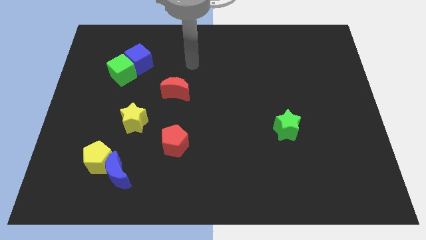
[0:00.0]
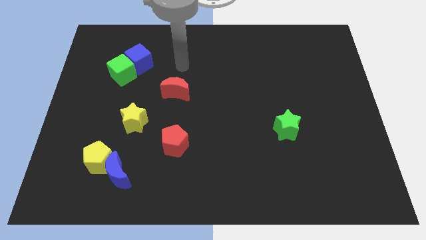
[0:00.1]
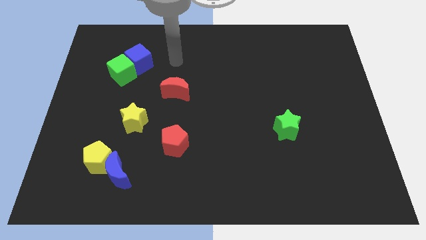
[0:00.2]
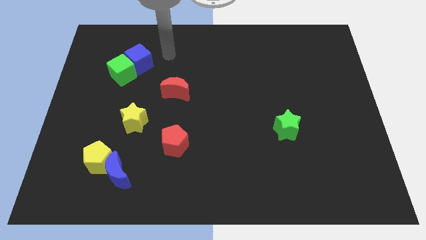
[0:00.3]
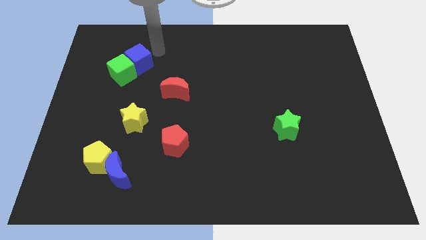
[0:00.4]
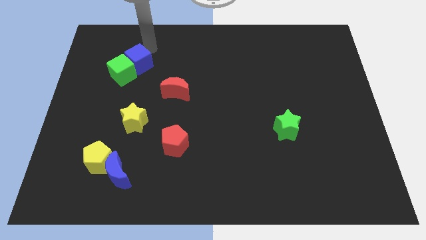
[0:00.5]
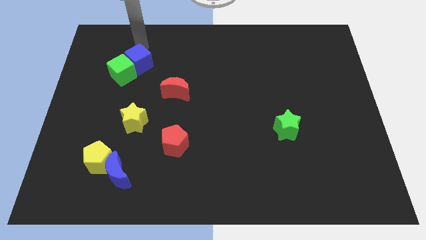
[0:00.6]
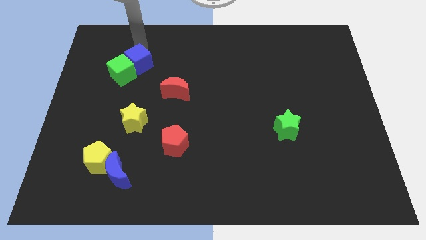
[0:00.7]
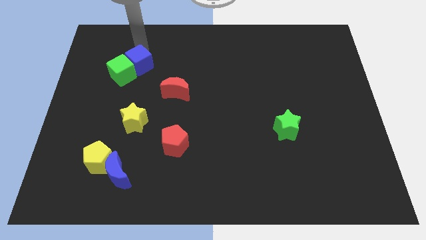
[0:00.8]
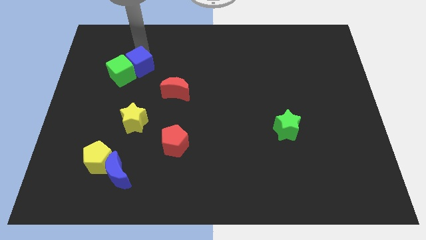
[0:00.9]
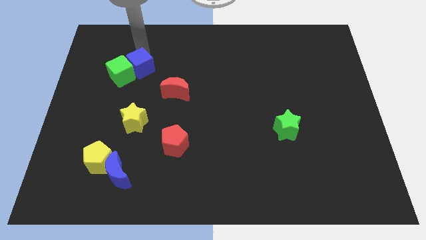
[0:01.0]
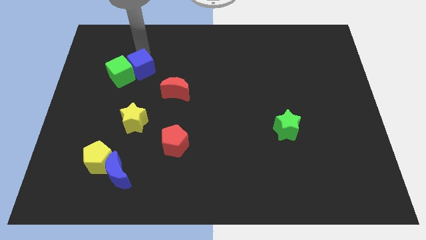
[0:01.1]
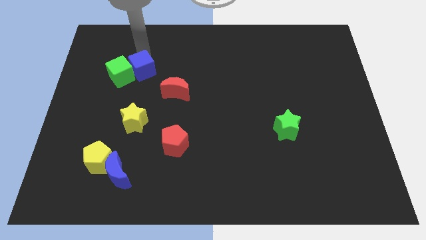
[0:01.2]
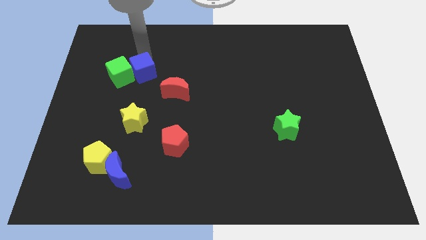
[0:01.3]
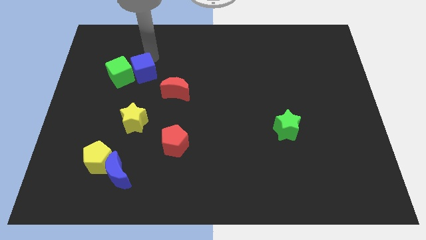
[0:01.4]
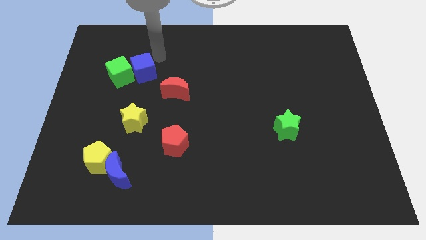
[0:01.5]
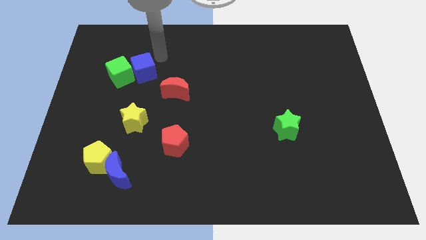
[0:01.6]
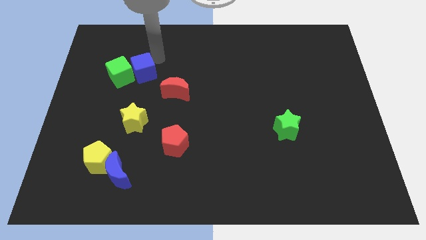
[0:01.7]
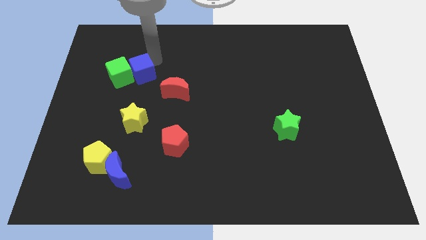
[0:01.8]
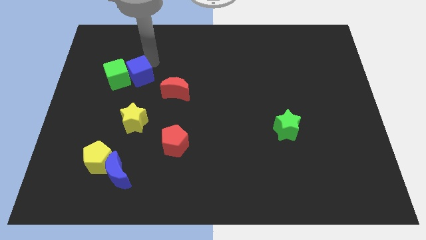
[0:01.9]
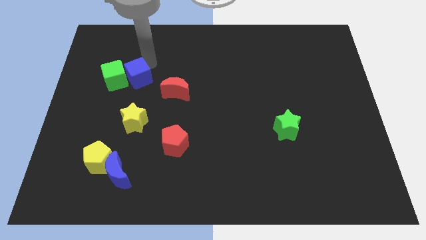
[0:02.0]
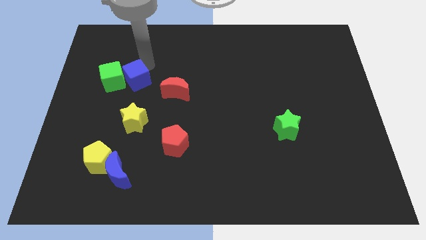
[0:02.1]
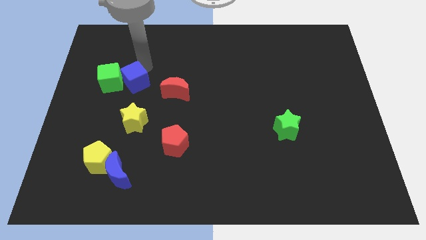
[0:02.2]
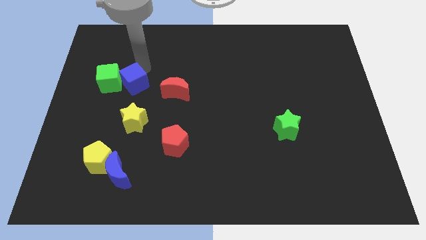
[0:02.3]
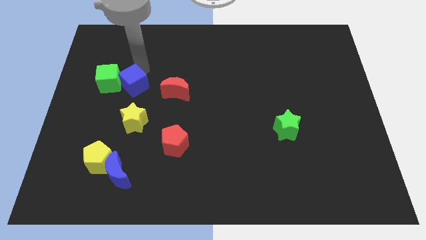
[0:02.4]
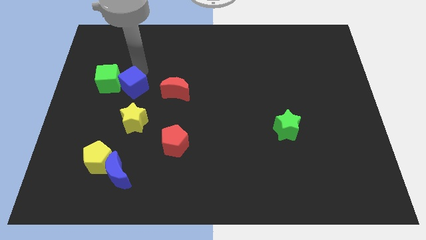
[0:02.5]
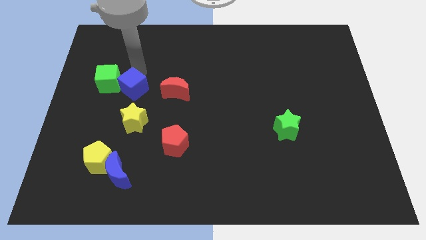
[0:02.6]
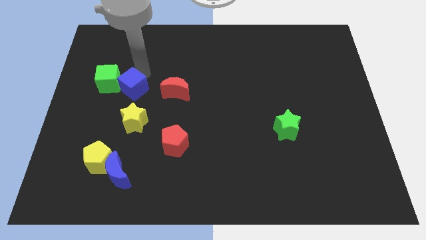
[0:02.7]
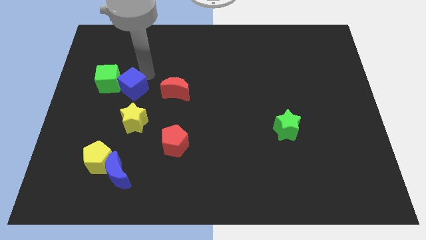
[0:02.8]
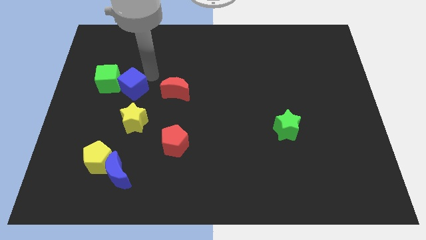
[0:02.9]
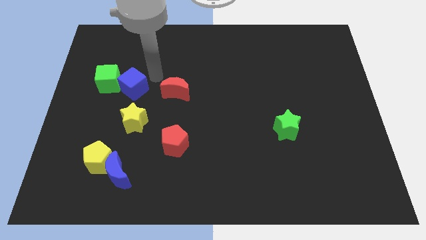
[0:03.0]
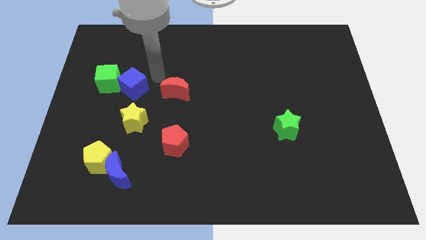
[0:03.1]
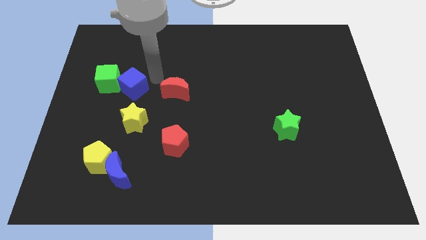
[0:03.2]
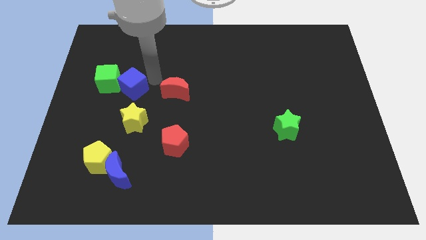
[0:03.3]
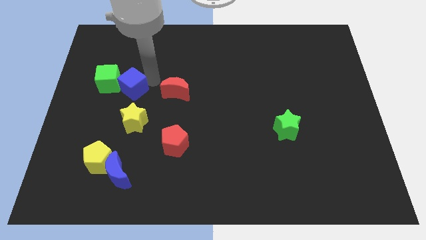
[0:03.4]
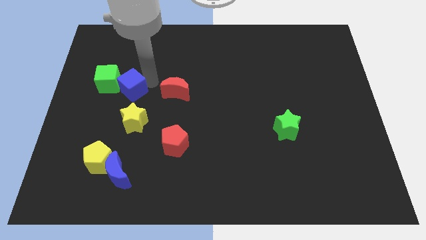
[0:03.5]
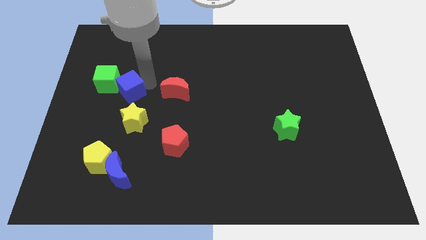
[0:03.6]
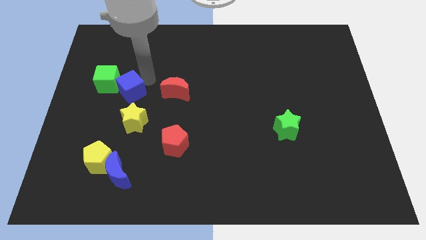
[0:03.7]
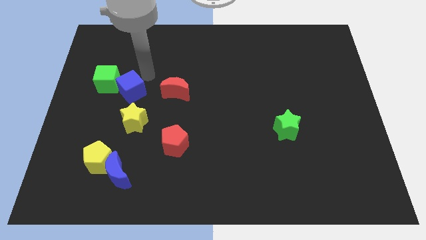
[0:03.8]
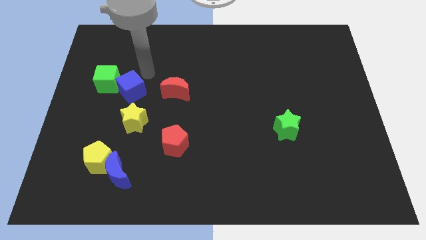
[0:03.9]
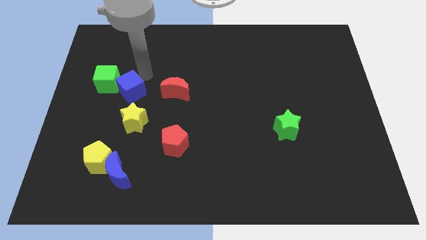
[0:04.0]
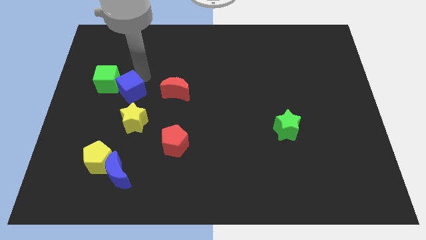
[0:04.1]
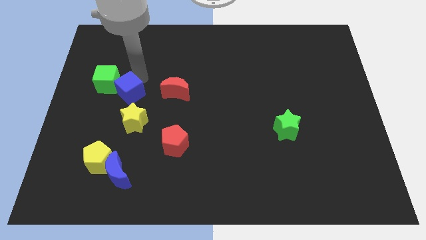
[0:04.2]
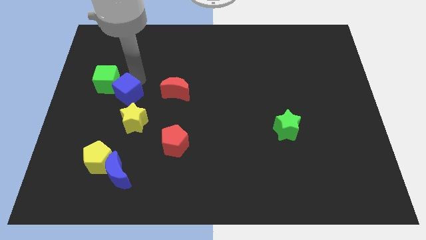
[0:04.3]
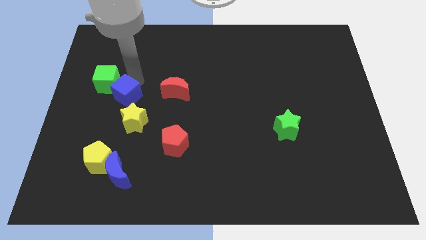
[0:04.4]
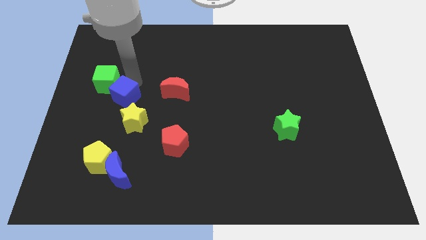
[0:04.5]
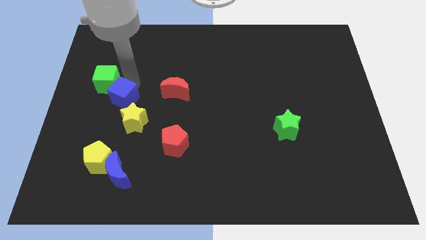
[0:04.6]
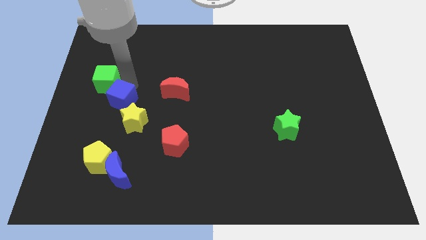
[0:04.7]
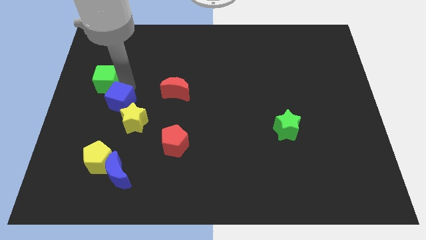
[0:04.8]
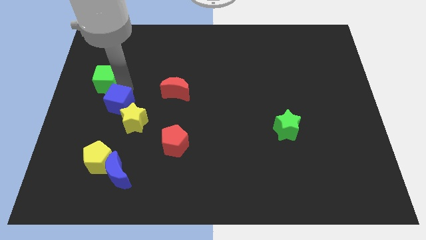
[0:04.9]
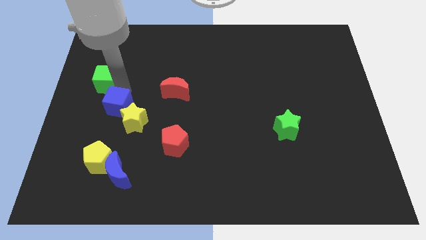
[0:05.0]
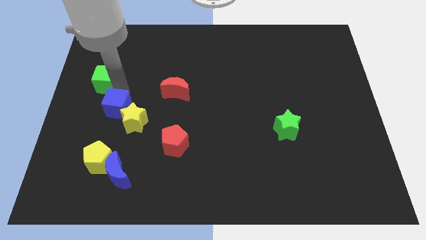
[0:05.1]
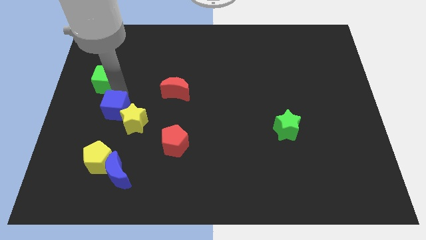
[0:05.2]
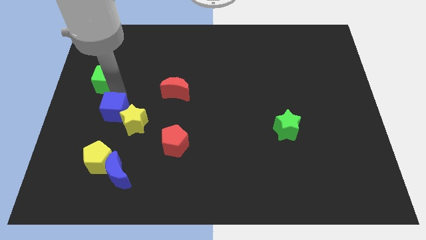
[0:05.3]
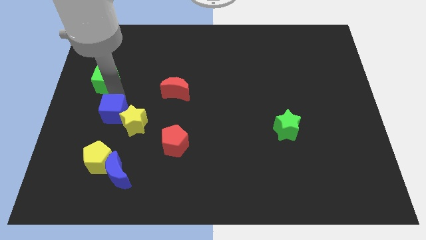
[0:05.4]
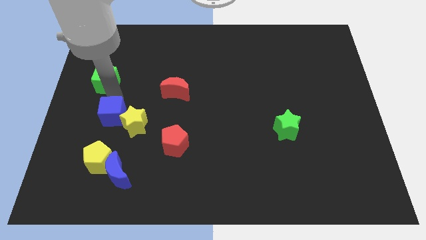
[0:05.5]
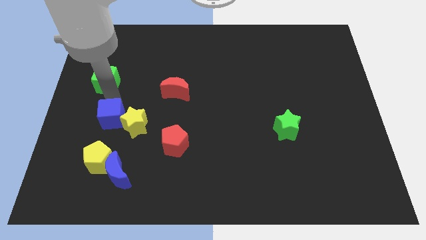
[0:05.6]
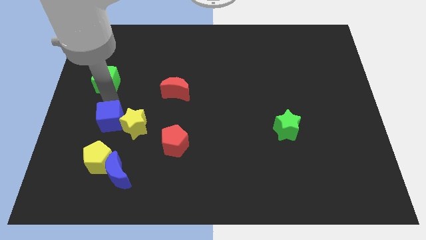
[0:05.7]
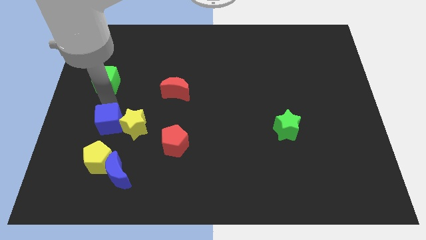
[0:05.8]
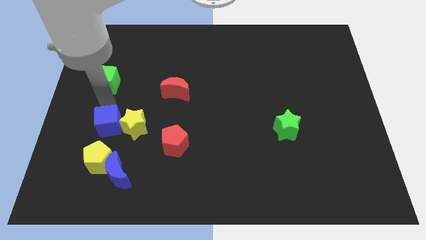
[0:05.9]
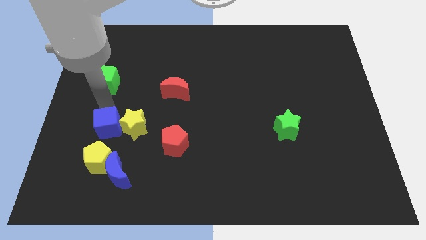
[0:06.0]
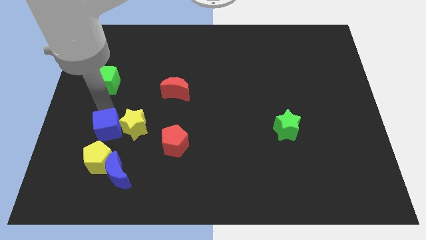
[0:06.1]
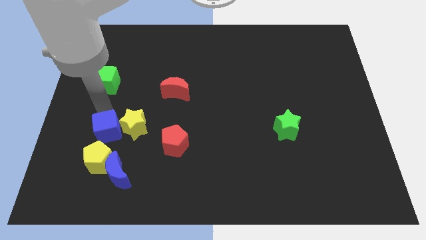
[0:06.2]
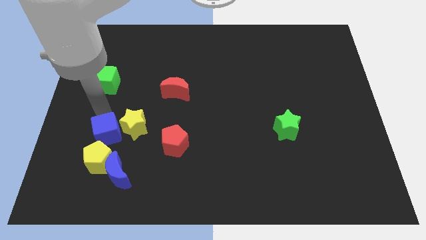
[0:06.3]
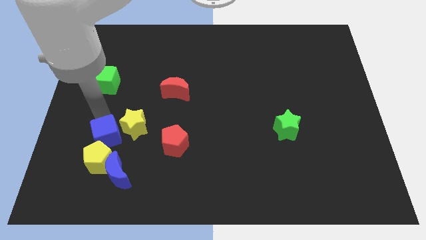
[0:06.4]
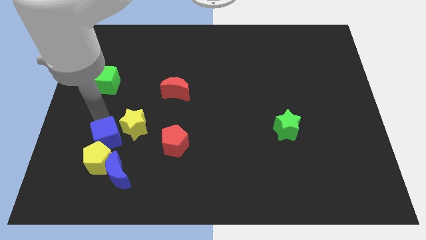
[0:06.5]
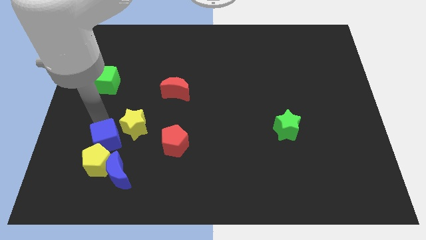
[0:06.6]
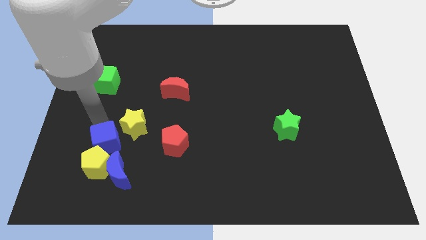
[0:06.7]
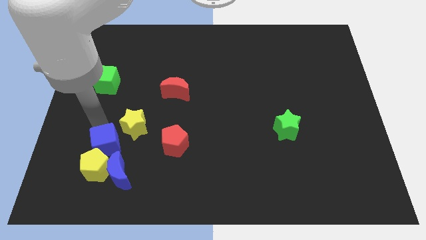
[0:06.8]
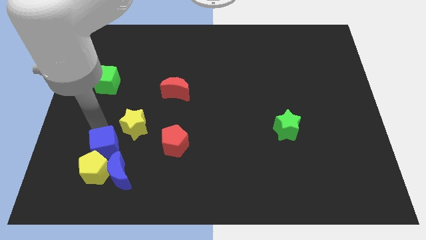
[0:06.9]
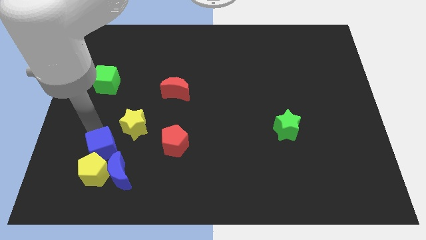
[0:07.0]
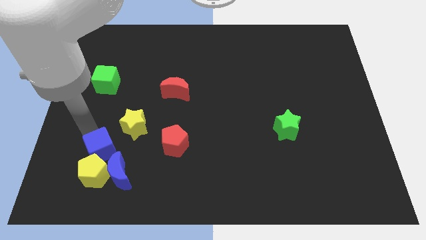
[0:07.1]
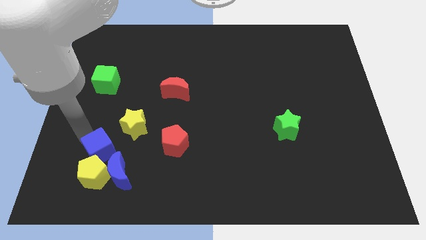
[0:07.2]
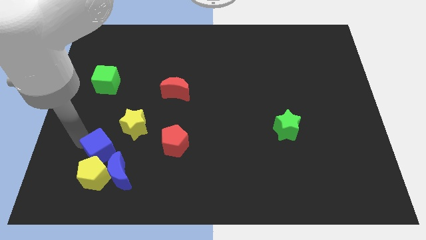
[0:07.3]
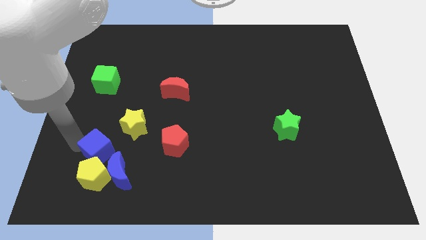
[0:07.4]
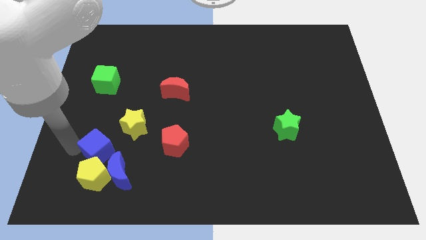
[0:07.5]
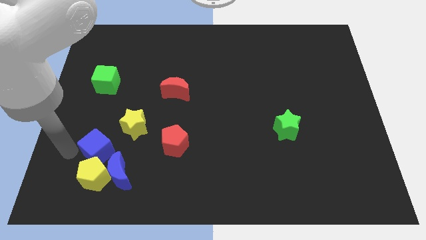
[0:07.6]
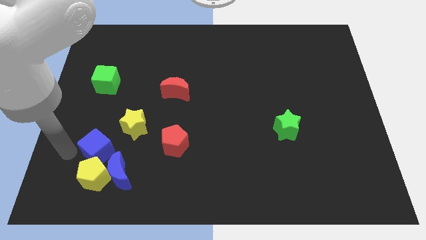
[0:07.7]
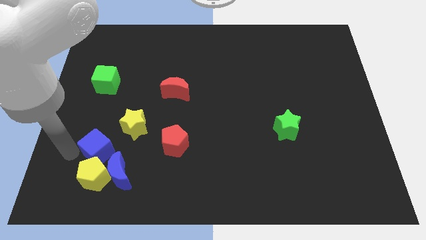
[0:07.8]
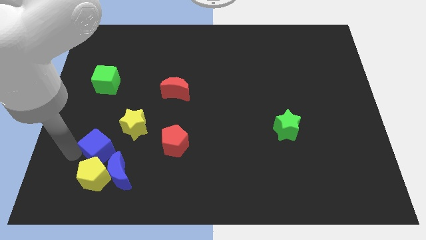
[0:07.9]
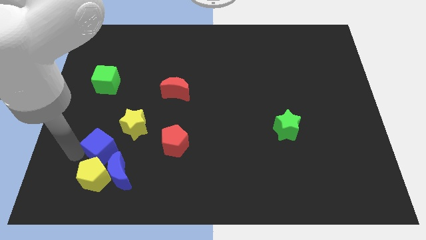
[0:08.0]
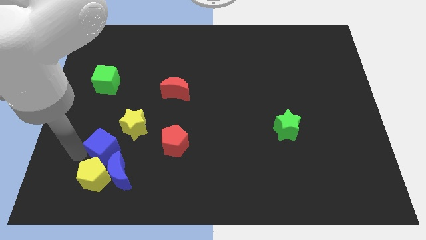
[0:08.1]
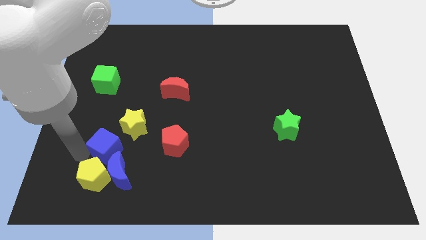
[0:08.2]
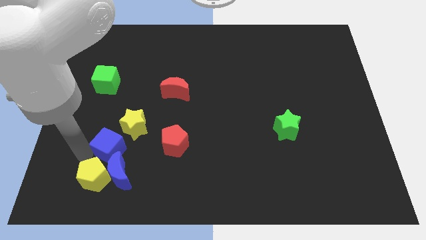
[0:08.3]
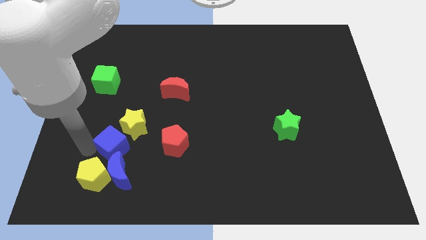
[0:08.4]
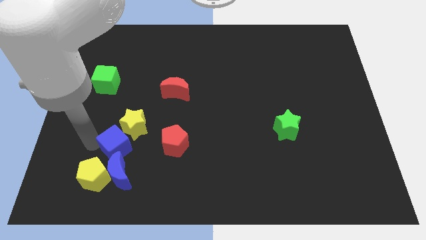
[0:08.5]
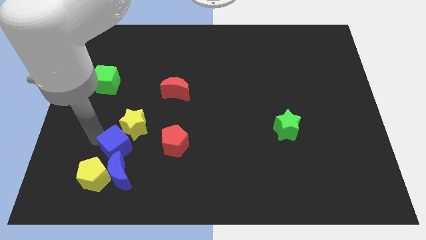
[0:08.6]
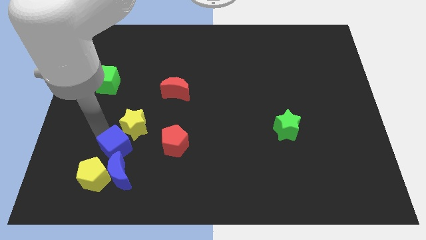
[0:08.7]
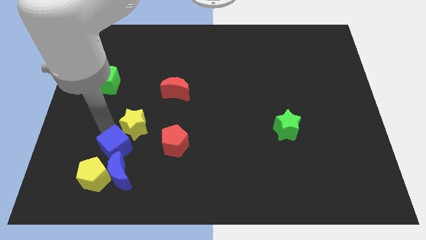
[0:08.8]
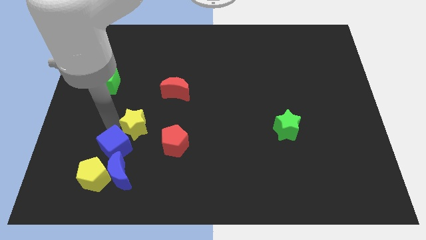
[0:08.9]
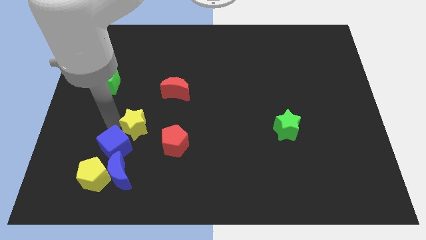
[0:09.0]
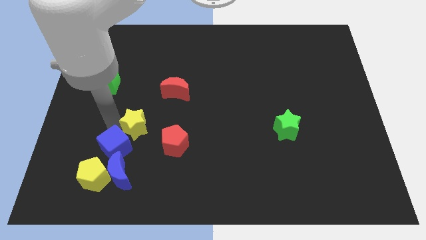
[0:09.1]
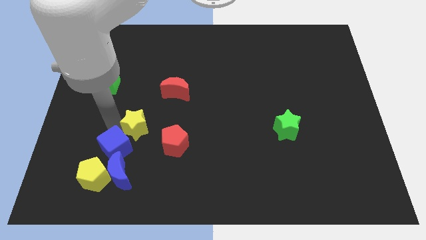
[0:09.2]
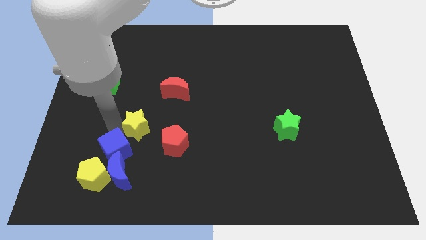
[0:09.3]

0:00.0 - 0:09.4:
push the blue cube close to the blue moon
